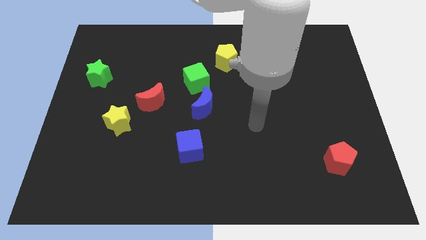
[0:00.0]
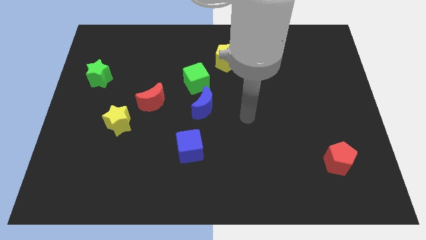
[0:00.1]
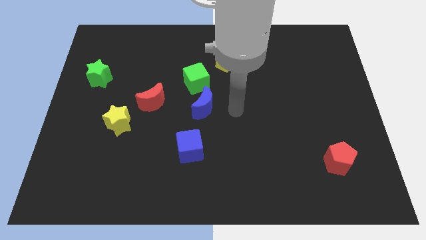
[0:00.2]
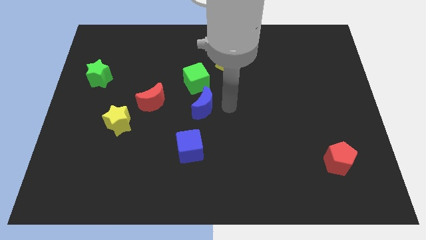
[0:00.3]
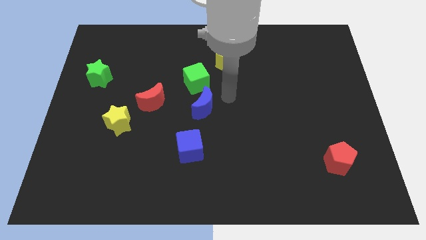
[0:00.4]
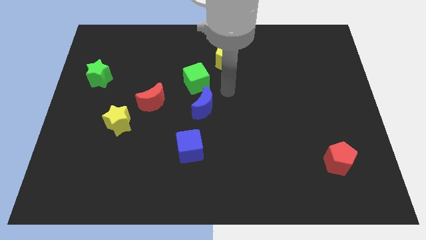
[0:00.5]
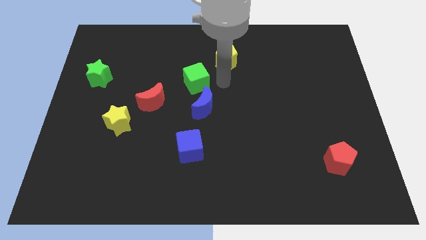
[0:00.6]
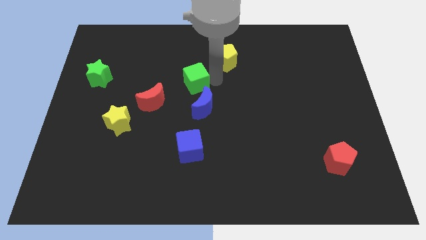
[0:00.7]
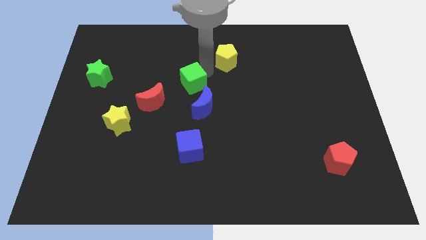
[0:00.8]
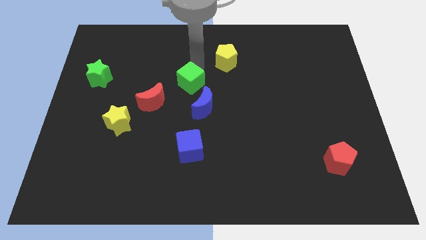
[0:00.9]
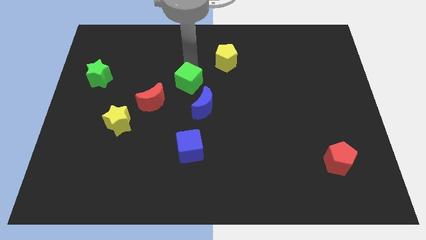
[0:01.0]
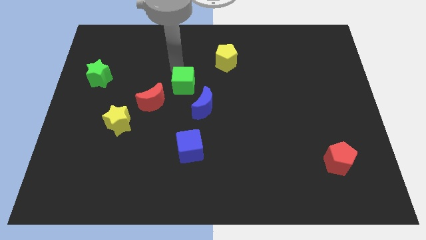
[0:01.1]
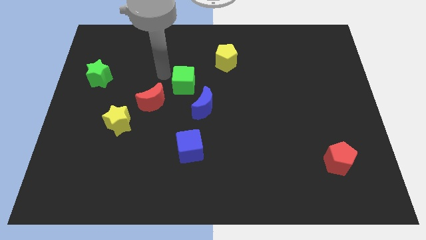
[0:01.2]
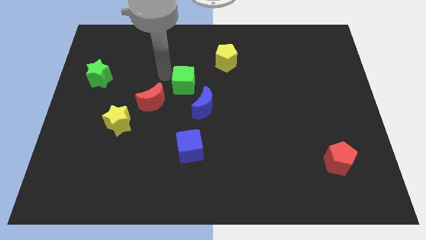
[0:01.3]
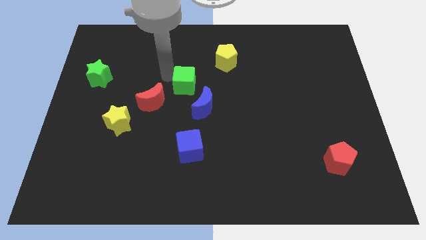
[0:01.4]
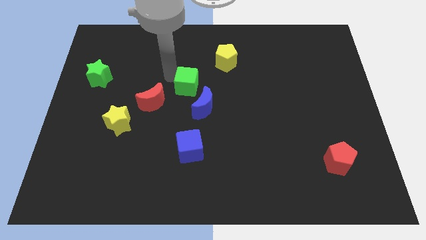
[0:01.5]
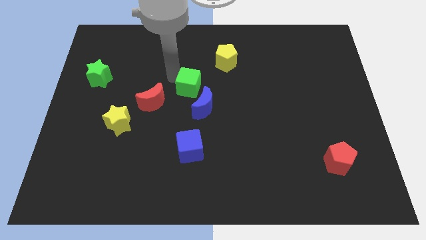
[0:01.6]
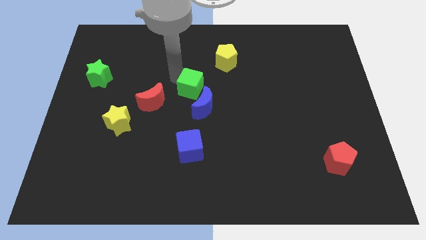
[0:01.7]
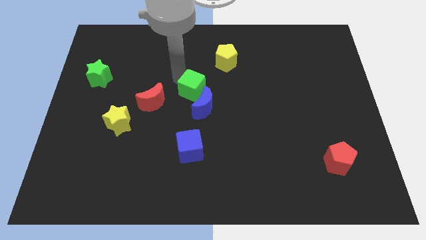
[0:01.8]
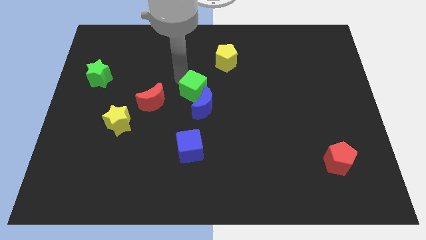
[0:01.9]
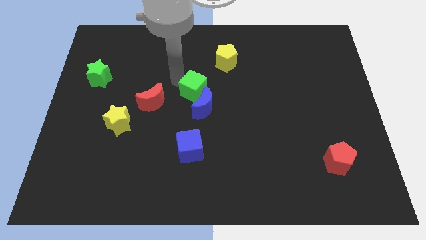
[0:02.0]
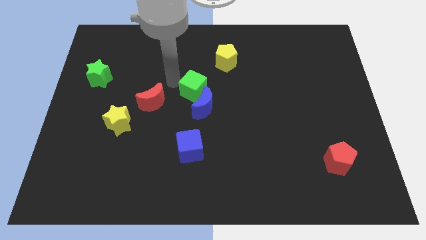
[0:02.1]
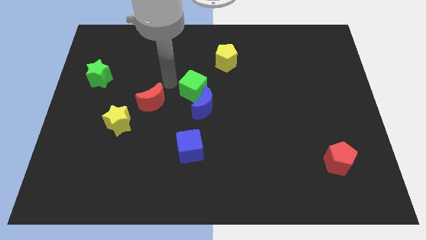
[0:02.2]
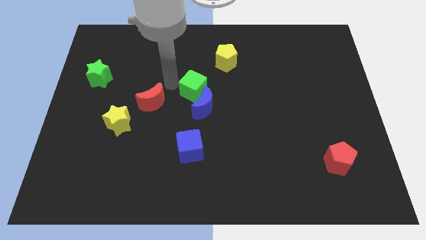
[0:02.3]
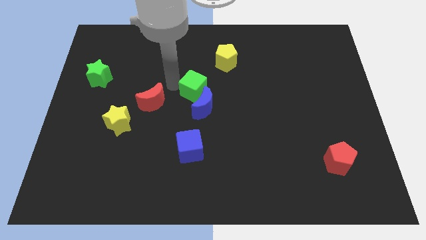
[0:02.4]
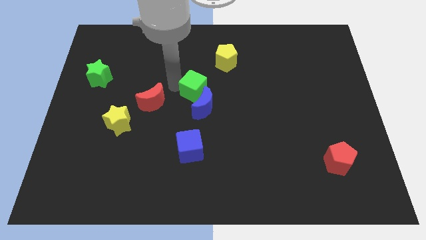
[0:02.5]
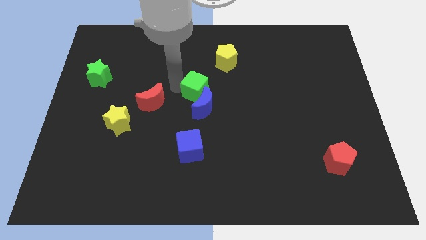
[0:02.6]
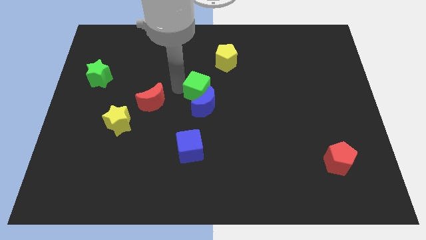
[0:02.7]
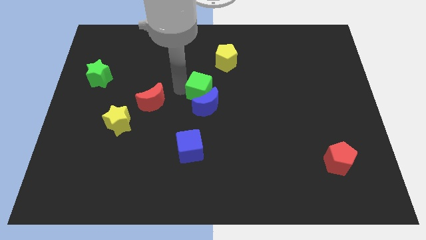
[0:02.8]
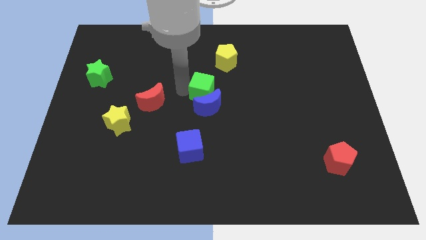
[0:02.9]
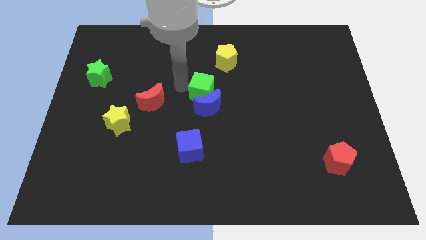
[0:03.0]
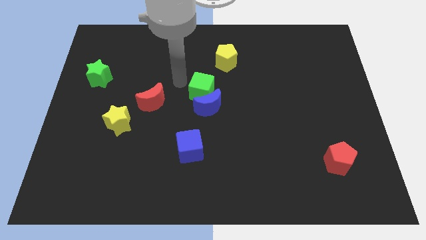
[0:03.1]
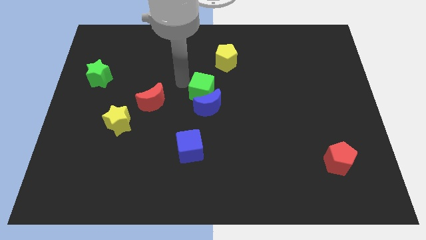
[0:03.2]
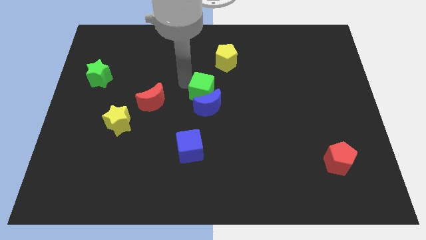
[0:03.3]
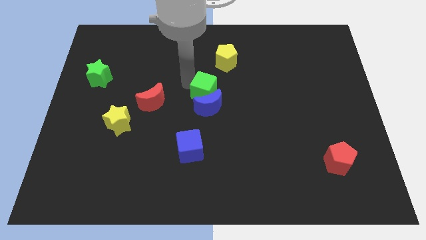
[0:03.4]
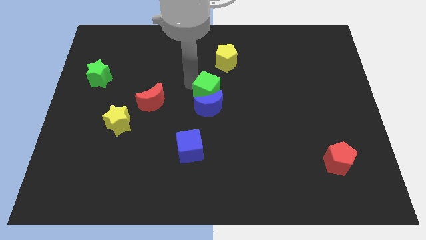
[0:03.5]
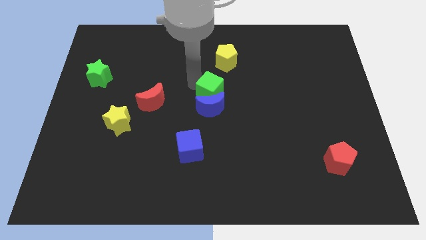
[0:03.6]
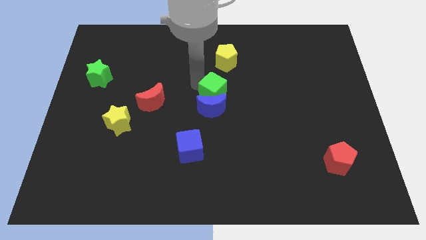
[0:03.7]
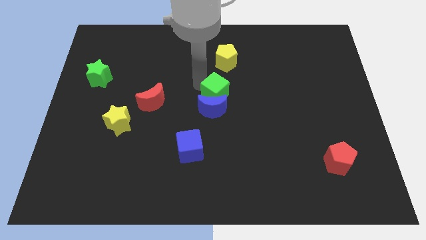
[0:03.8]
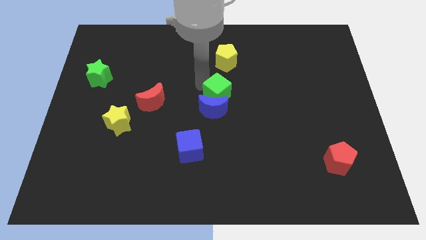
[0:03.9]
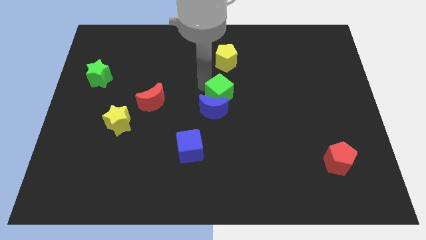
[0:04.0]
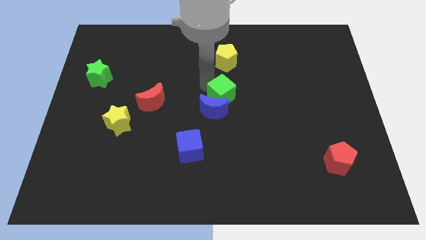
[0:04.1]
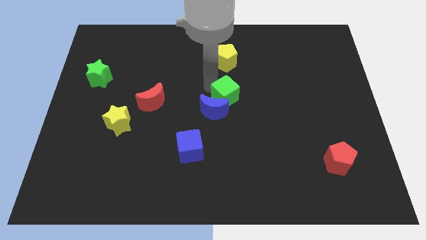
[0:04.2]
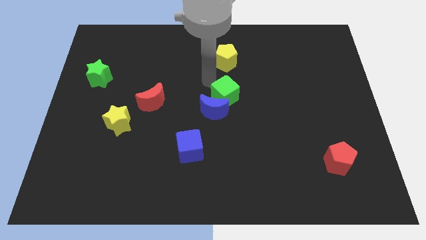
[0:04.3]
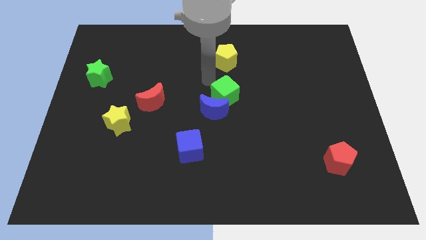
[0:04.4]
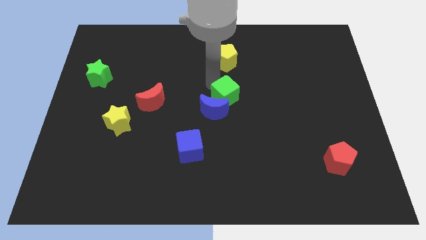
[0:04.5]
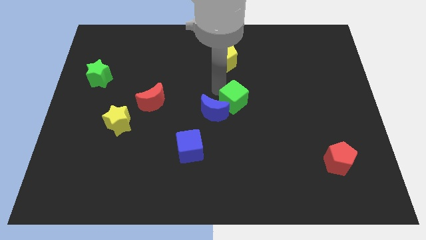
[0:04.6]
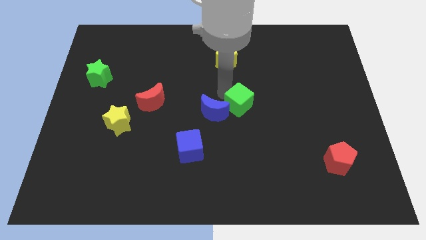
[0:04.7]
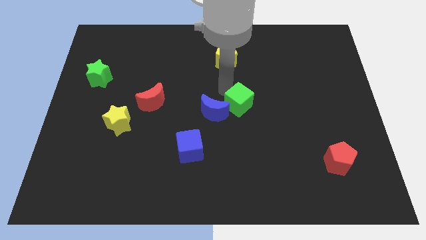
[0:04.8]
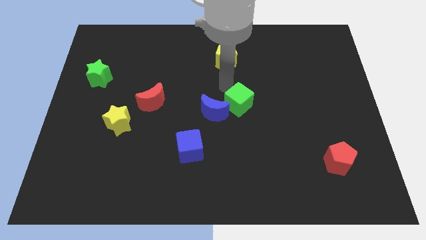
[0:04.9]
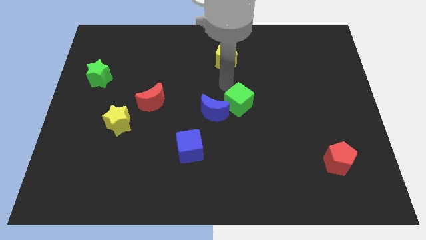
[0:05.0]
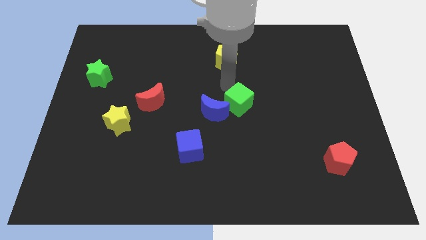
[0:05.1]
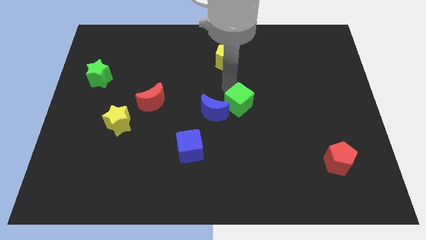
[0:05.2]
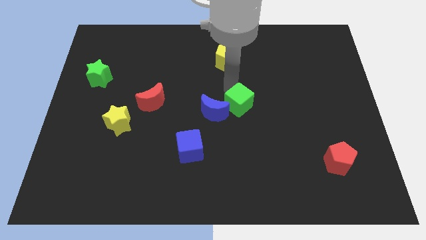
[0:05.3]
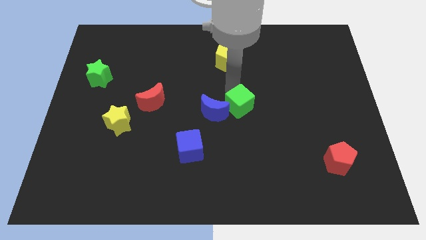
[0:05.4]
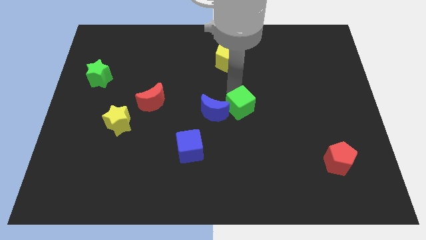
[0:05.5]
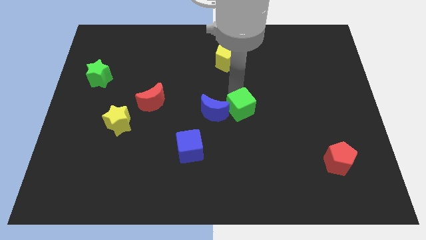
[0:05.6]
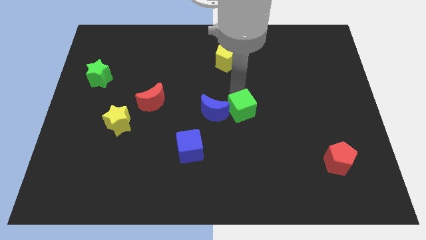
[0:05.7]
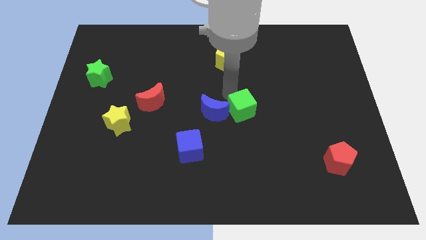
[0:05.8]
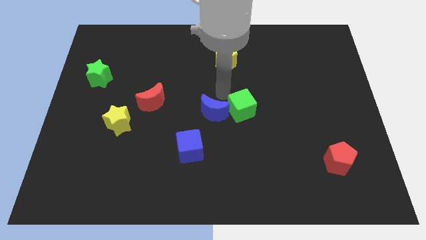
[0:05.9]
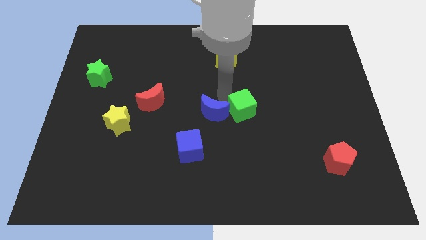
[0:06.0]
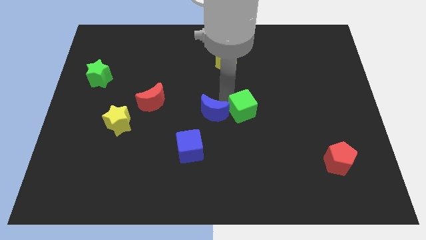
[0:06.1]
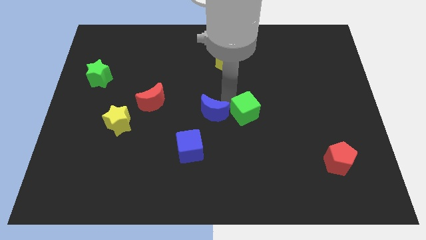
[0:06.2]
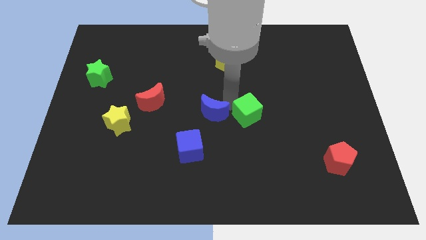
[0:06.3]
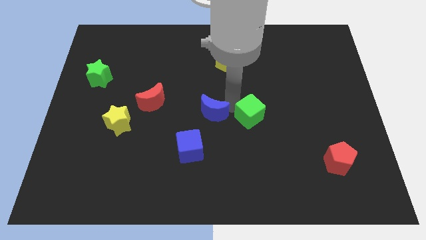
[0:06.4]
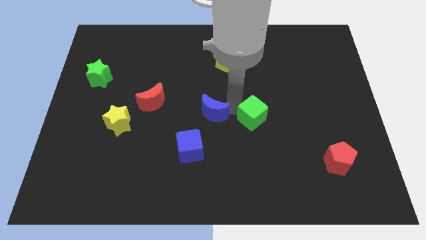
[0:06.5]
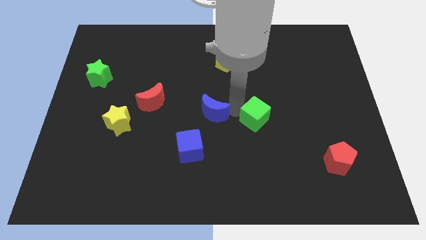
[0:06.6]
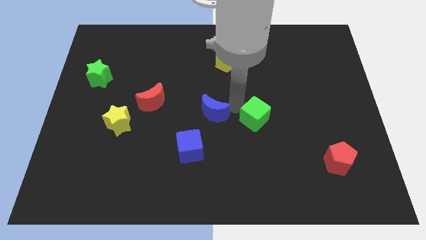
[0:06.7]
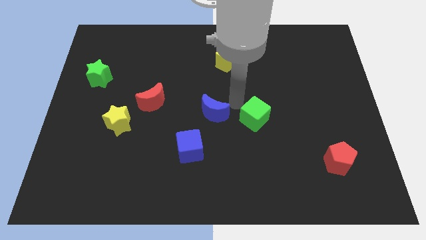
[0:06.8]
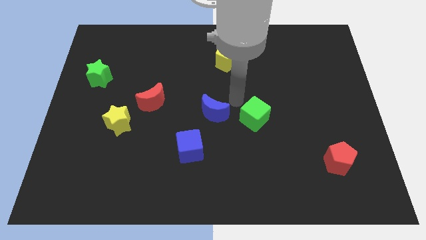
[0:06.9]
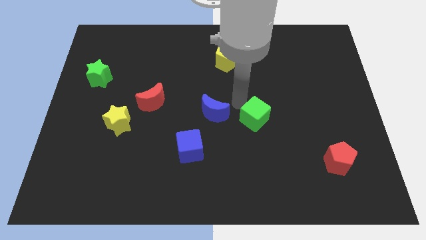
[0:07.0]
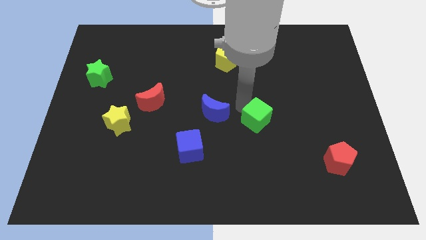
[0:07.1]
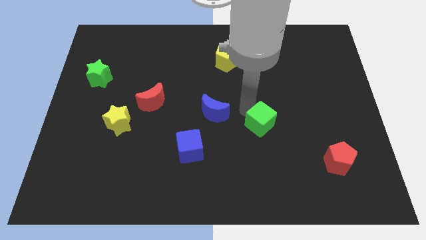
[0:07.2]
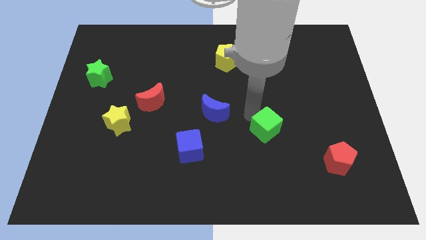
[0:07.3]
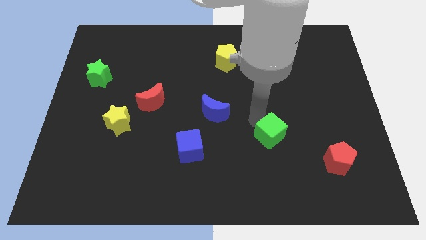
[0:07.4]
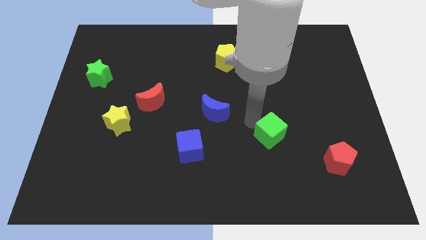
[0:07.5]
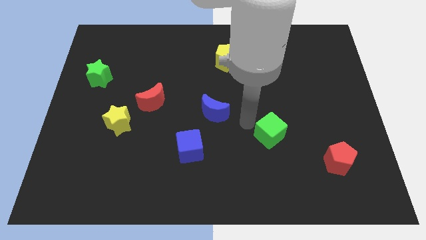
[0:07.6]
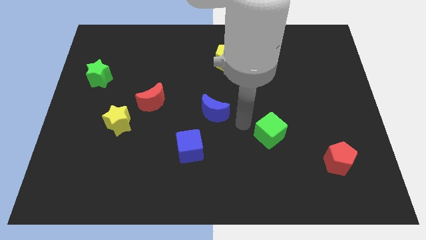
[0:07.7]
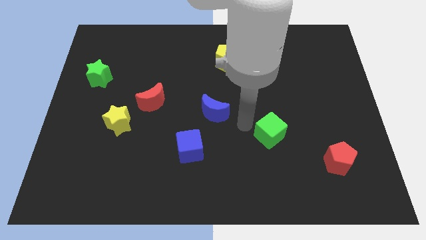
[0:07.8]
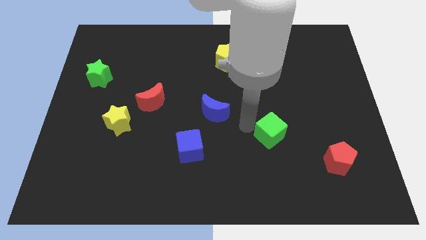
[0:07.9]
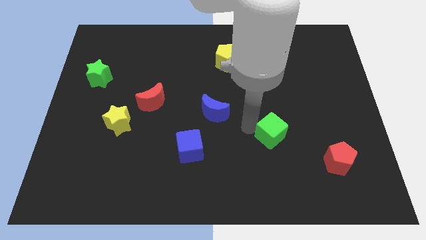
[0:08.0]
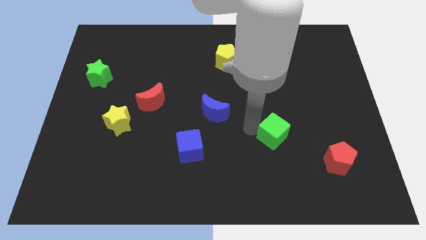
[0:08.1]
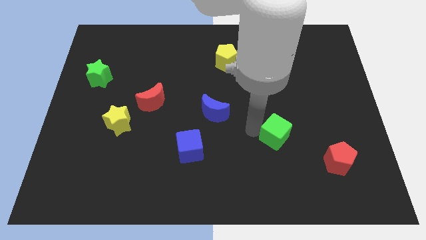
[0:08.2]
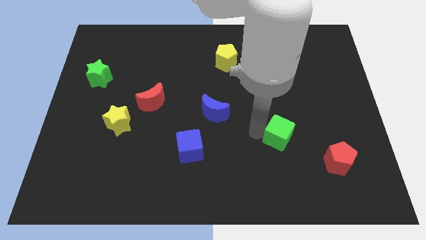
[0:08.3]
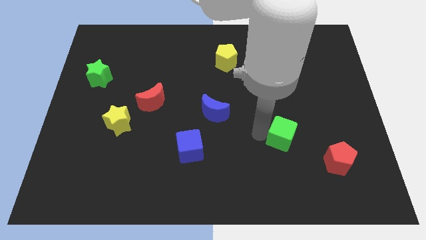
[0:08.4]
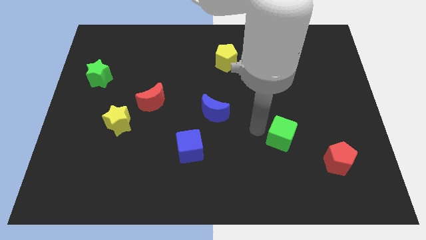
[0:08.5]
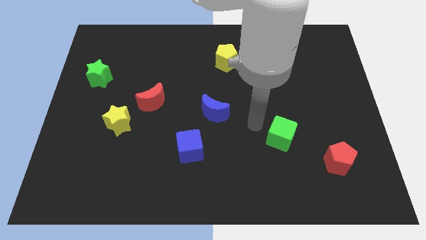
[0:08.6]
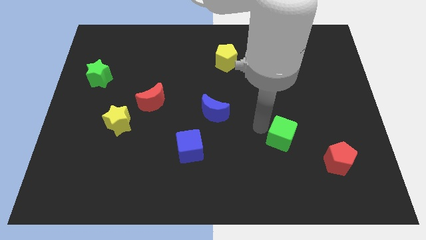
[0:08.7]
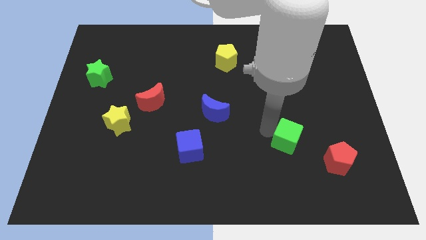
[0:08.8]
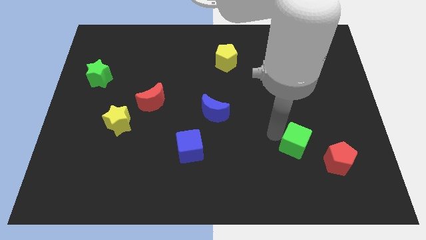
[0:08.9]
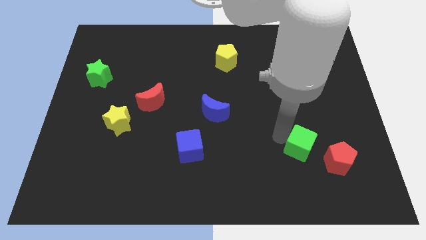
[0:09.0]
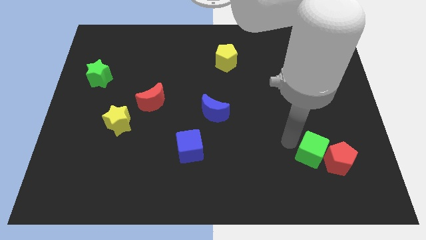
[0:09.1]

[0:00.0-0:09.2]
push the green cube next to the red pentagon
